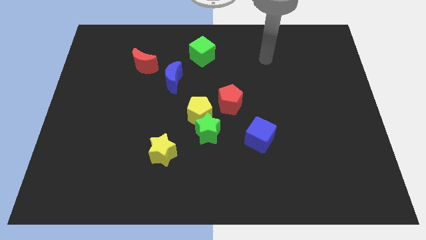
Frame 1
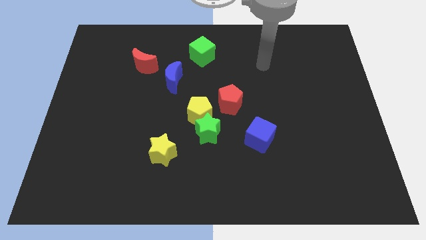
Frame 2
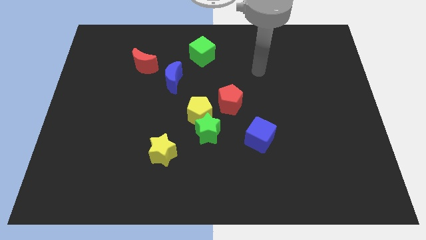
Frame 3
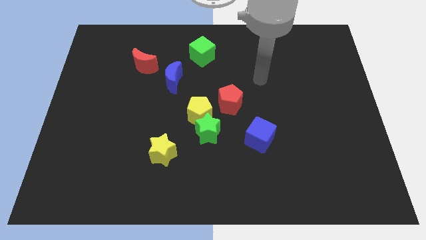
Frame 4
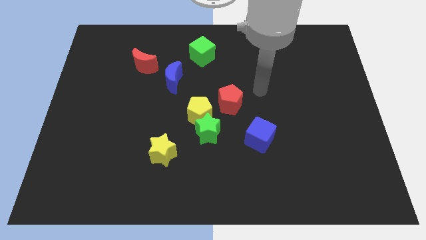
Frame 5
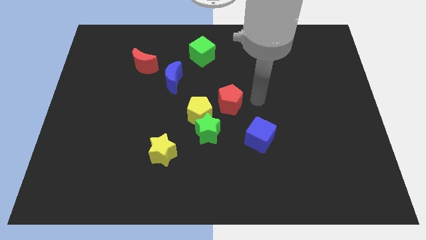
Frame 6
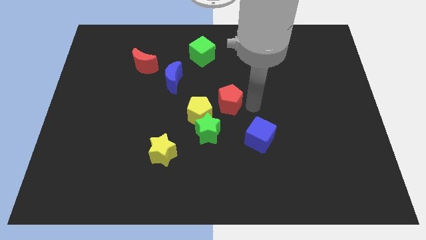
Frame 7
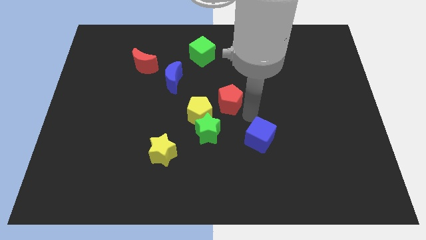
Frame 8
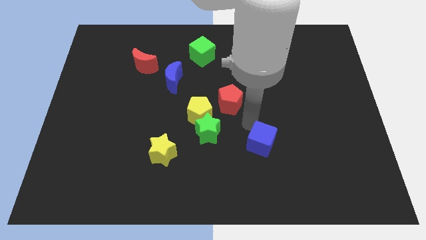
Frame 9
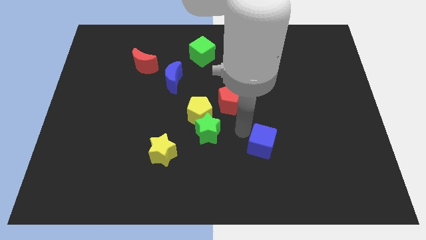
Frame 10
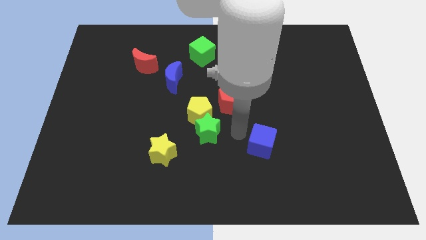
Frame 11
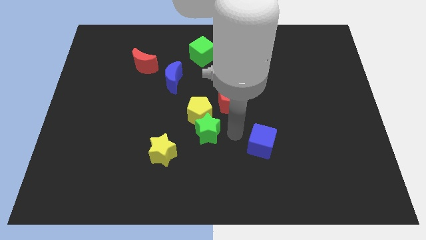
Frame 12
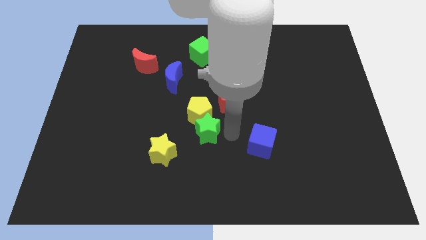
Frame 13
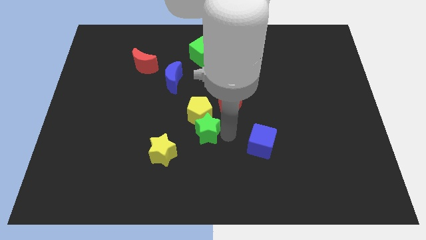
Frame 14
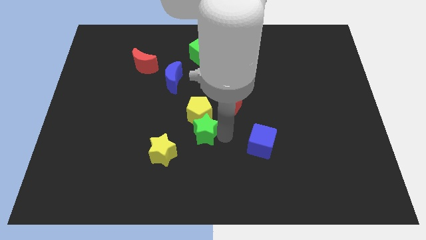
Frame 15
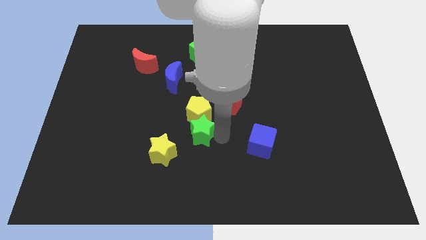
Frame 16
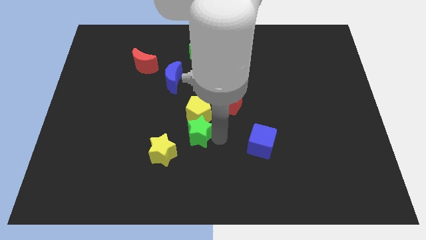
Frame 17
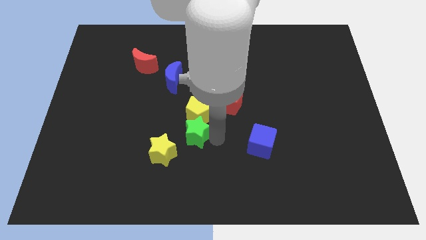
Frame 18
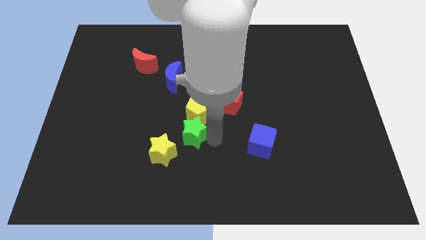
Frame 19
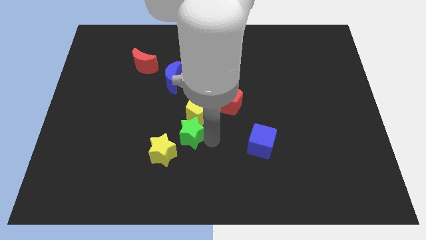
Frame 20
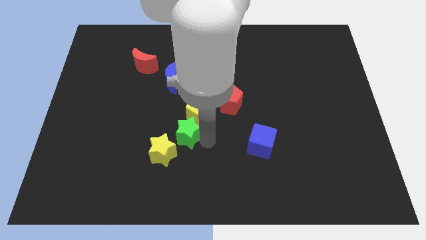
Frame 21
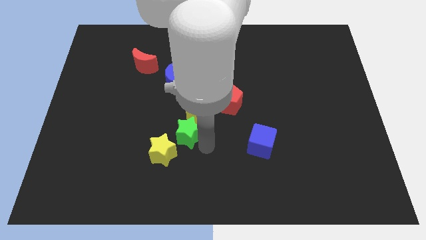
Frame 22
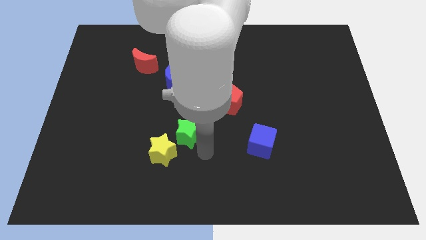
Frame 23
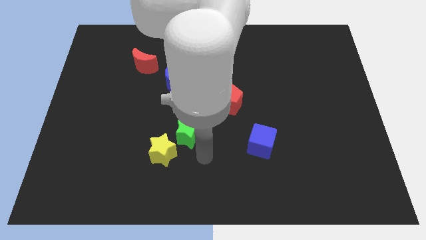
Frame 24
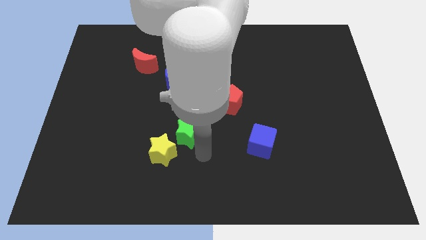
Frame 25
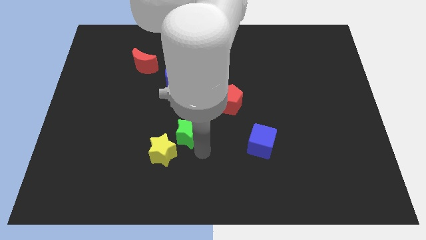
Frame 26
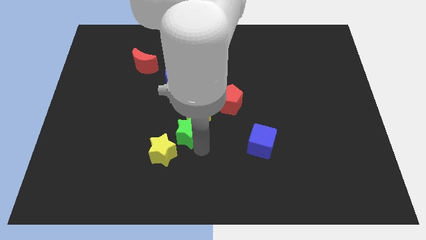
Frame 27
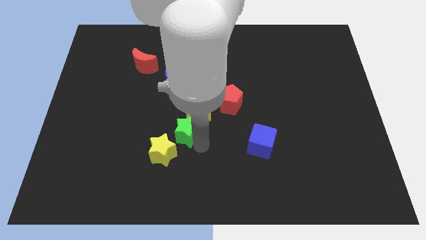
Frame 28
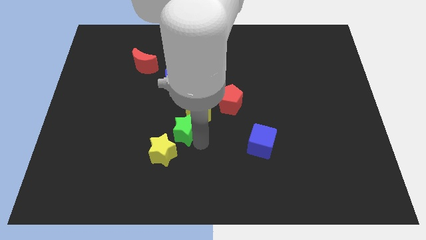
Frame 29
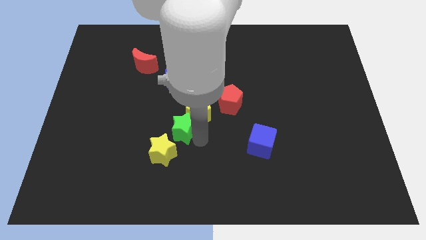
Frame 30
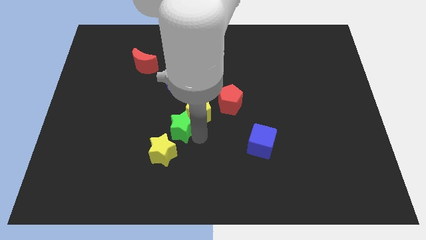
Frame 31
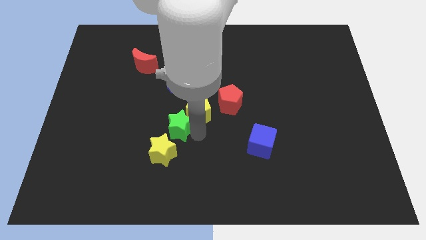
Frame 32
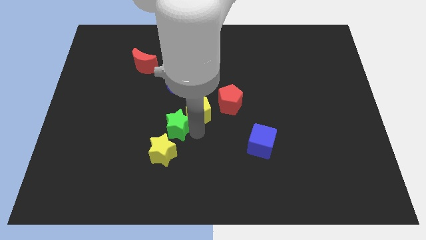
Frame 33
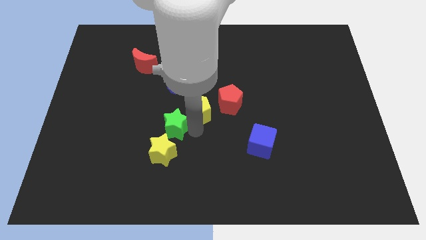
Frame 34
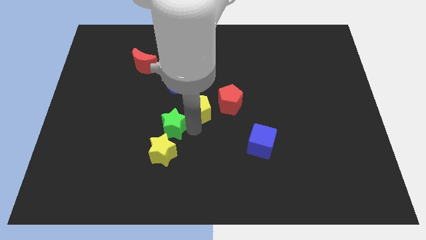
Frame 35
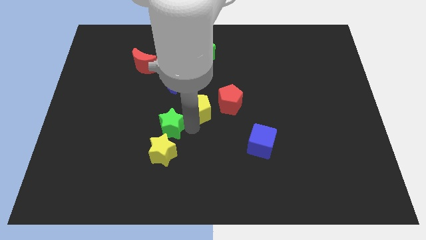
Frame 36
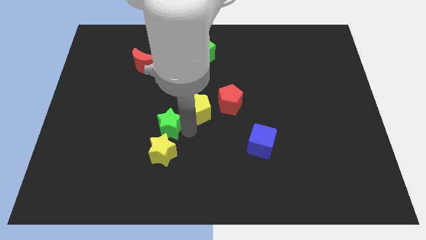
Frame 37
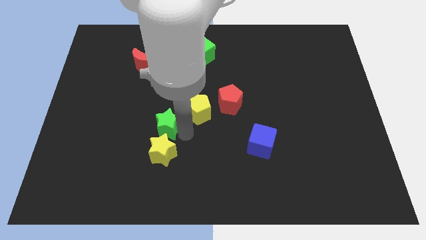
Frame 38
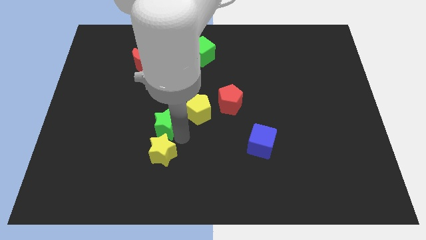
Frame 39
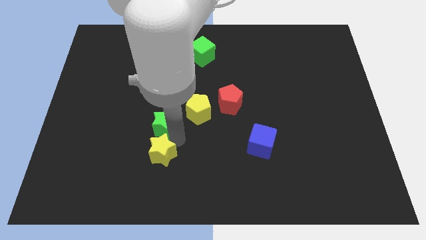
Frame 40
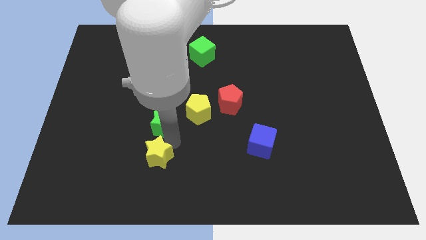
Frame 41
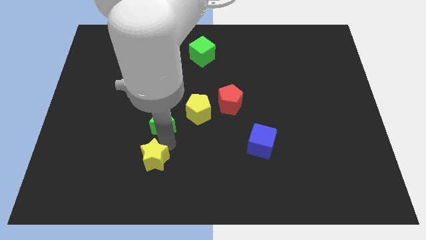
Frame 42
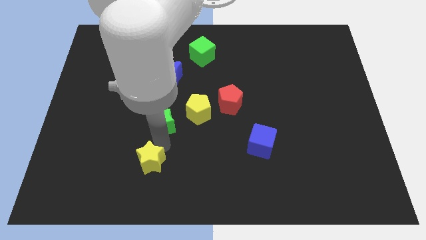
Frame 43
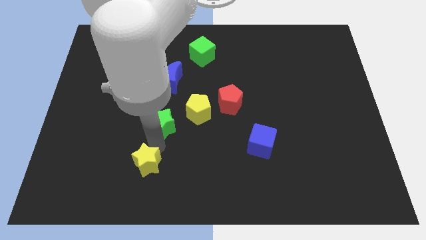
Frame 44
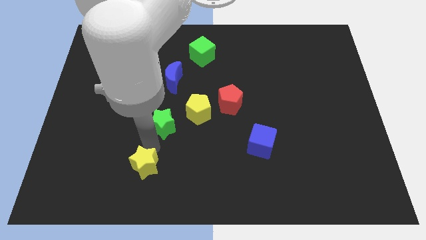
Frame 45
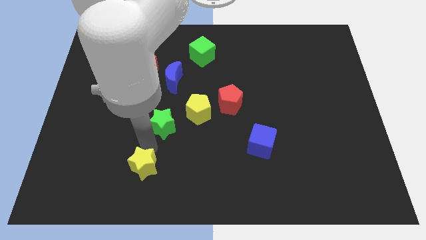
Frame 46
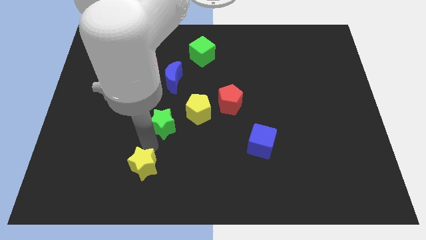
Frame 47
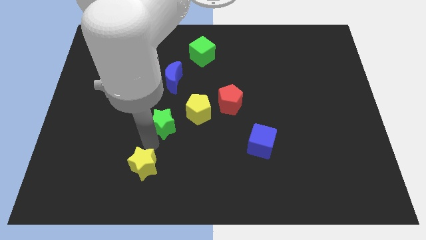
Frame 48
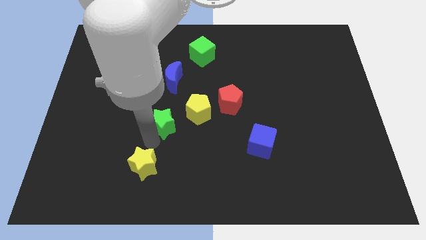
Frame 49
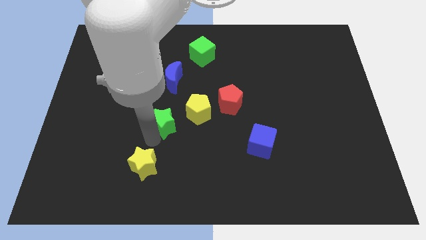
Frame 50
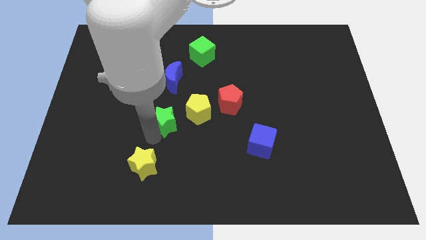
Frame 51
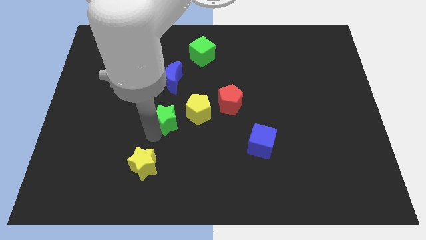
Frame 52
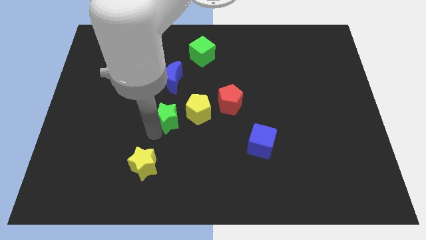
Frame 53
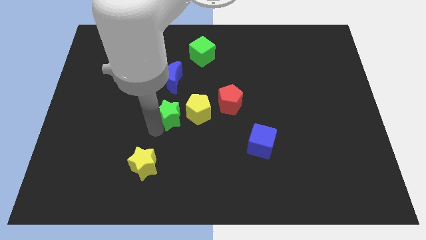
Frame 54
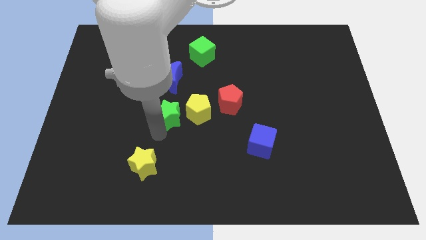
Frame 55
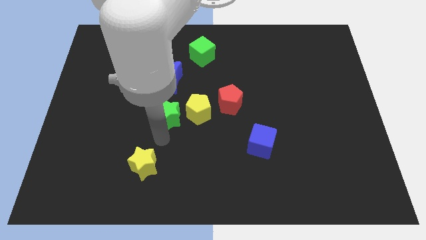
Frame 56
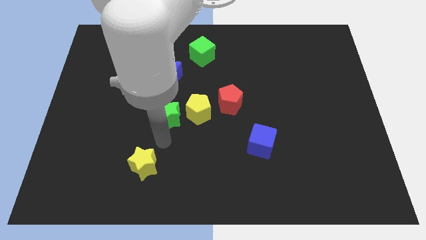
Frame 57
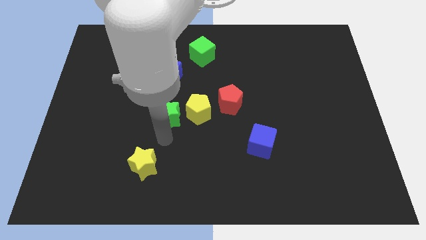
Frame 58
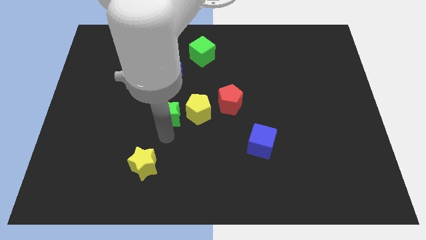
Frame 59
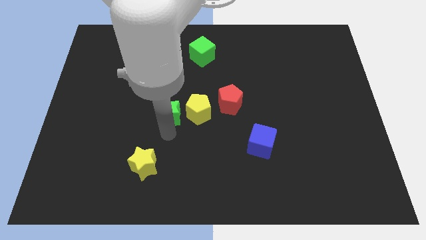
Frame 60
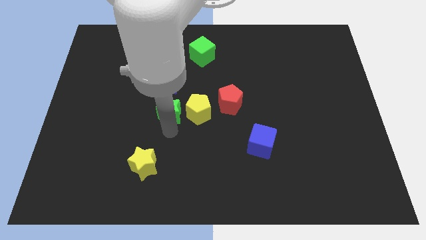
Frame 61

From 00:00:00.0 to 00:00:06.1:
move the green star to the top left side of the yellow pentagon

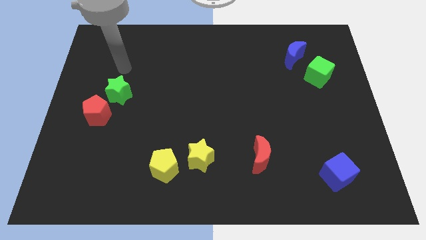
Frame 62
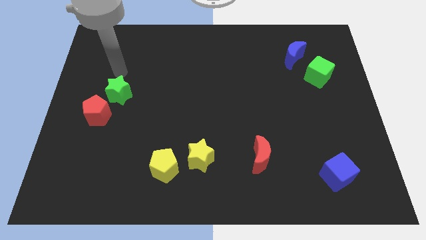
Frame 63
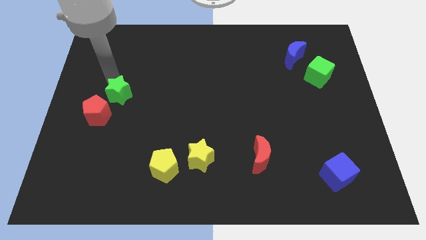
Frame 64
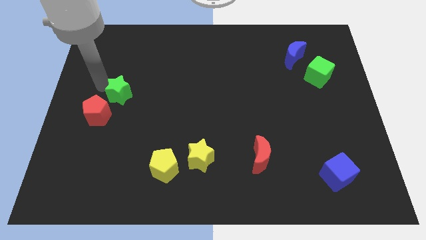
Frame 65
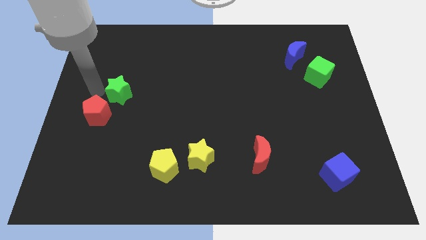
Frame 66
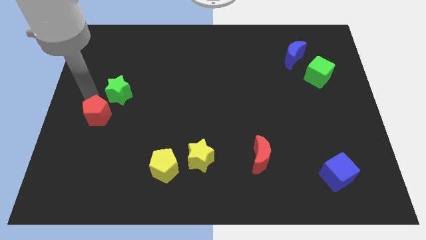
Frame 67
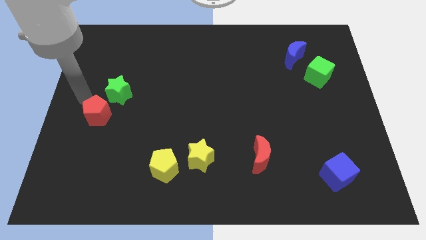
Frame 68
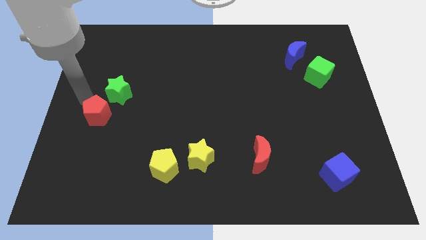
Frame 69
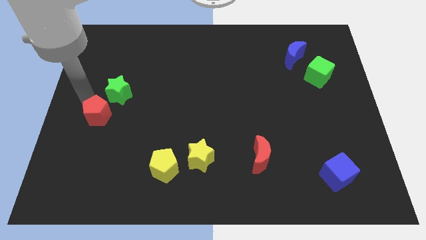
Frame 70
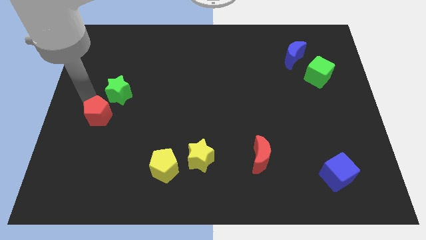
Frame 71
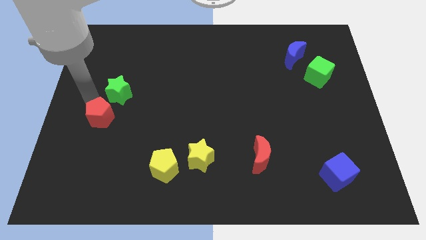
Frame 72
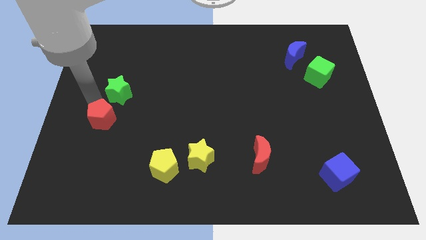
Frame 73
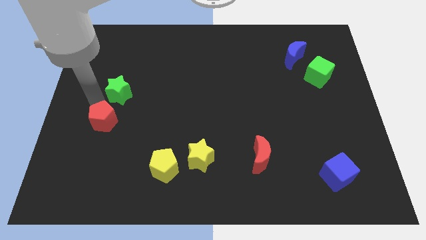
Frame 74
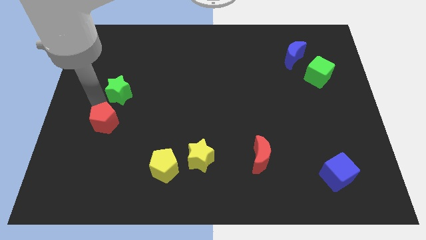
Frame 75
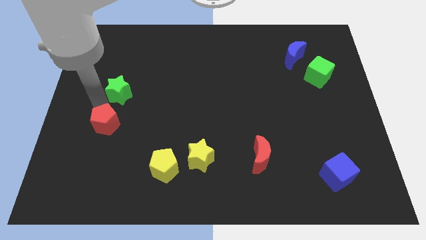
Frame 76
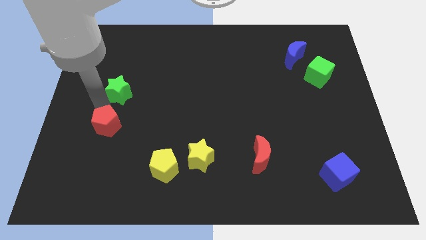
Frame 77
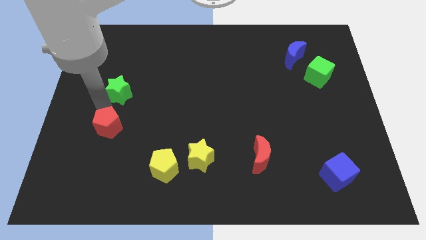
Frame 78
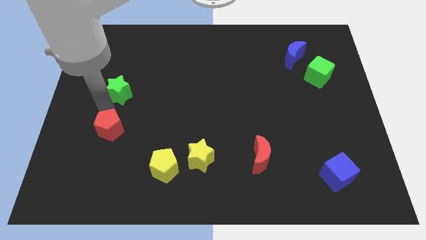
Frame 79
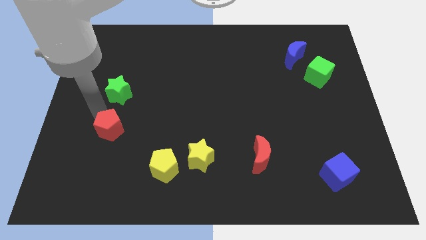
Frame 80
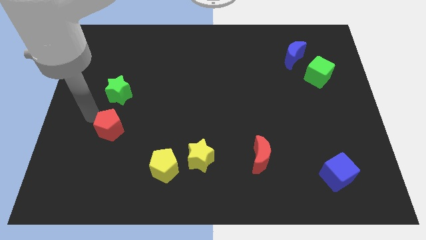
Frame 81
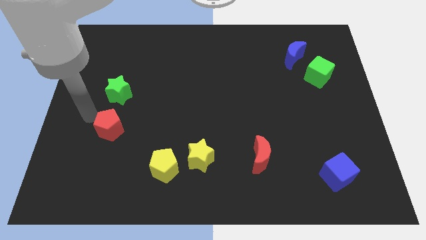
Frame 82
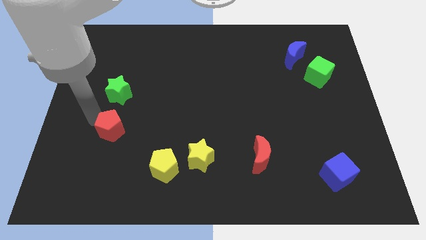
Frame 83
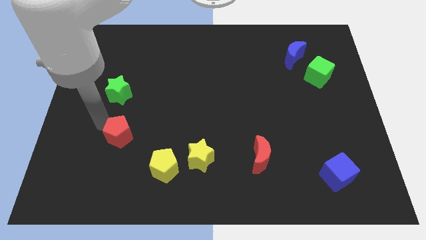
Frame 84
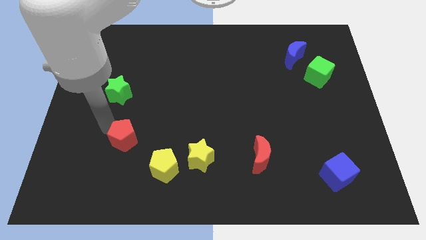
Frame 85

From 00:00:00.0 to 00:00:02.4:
move the red pentagon to the top left side of the yellow pentagon
